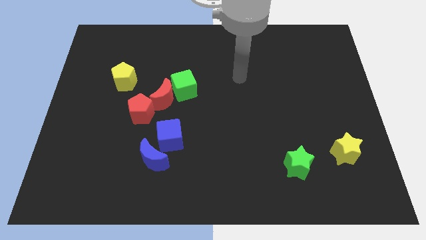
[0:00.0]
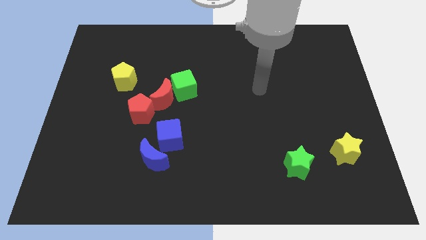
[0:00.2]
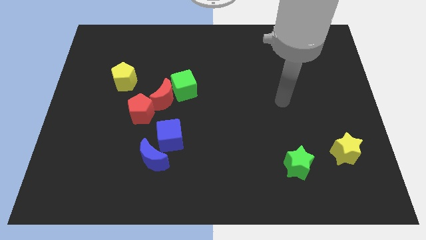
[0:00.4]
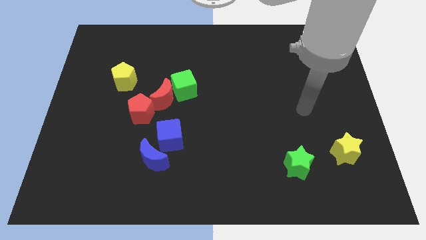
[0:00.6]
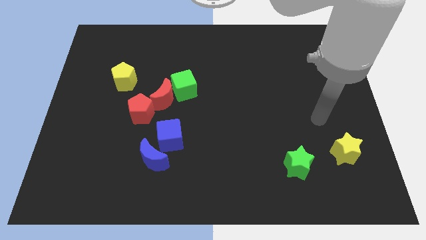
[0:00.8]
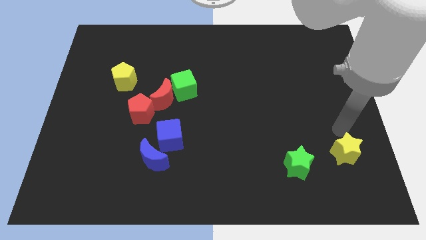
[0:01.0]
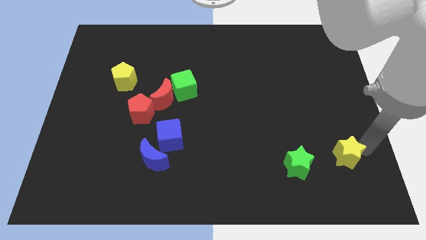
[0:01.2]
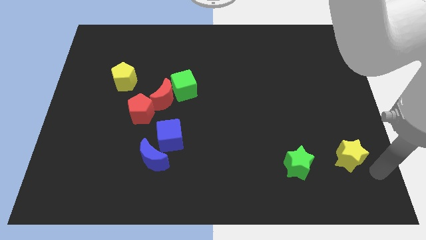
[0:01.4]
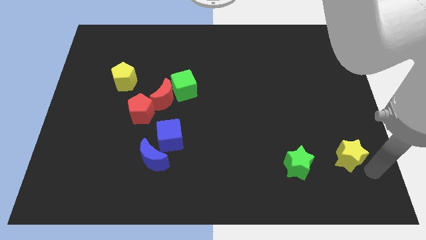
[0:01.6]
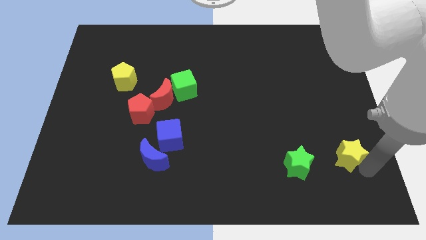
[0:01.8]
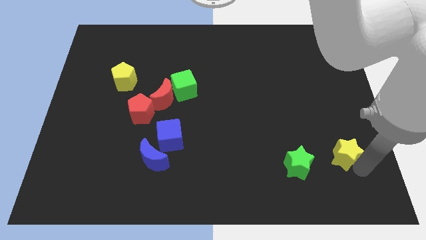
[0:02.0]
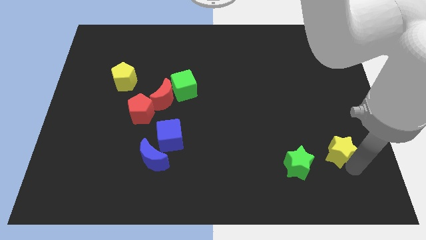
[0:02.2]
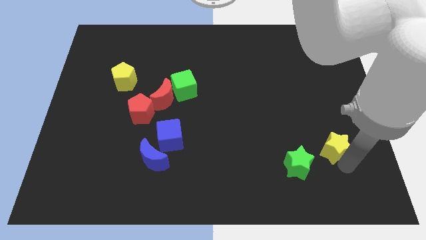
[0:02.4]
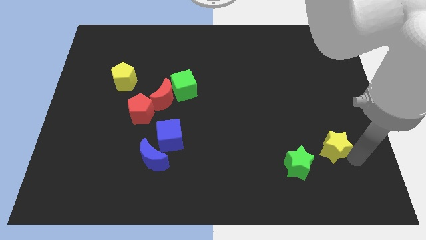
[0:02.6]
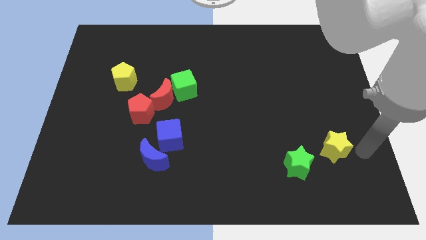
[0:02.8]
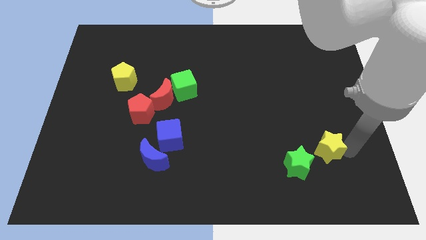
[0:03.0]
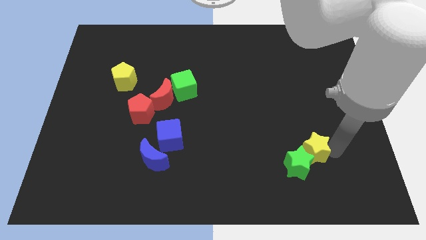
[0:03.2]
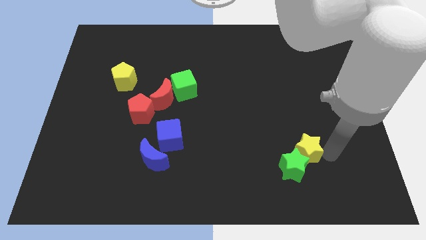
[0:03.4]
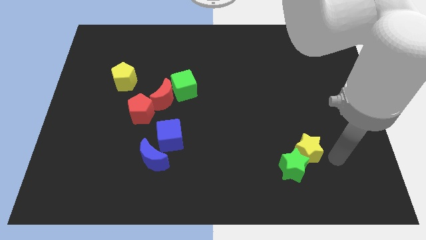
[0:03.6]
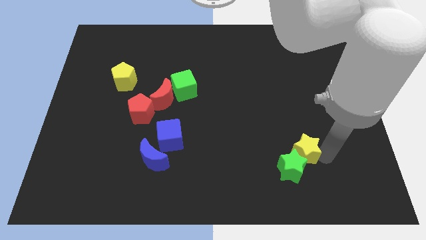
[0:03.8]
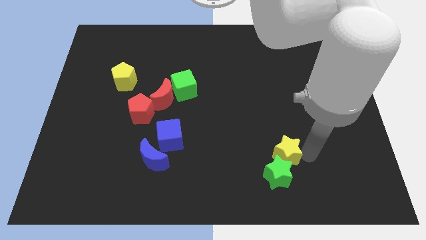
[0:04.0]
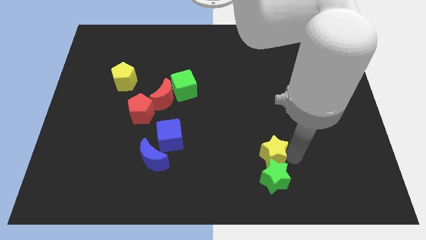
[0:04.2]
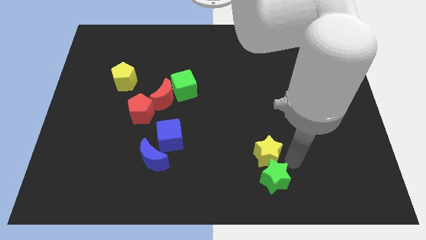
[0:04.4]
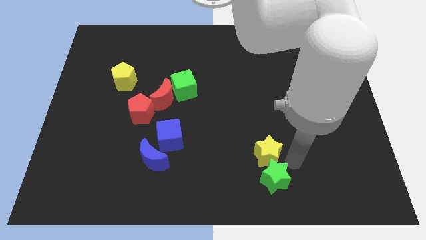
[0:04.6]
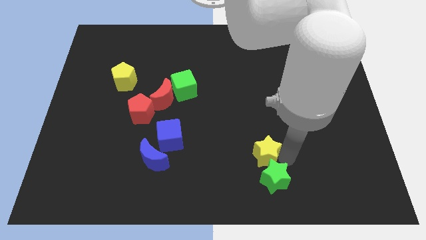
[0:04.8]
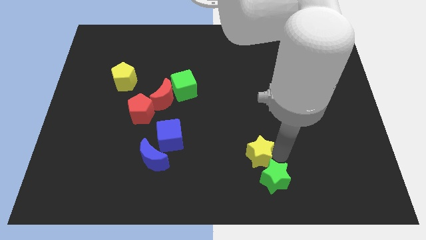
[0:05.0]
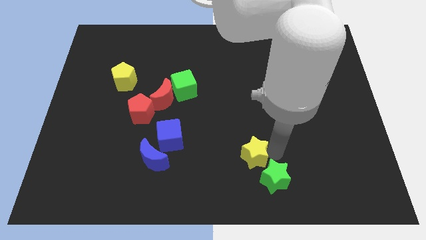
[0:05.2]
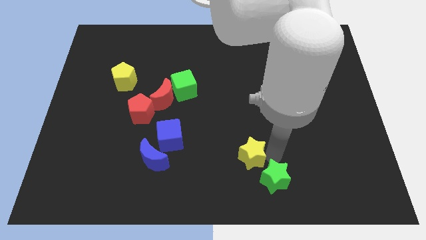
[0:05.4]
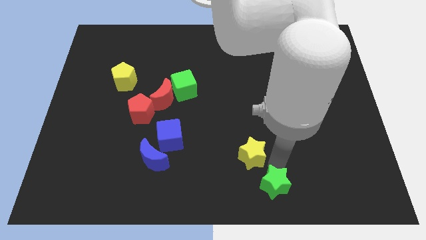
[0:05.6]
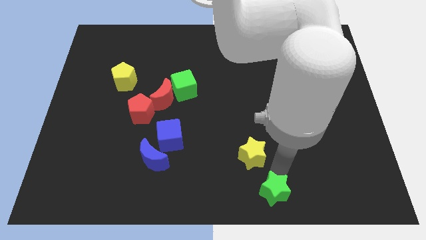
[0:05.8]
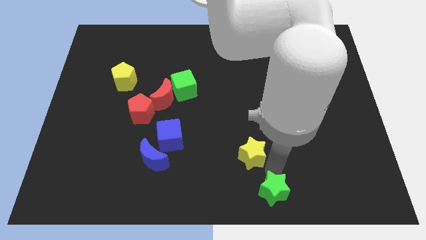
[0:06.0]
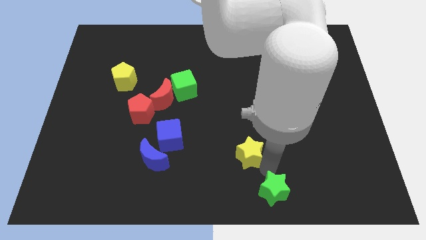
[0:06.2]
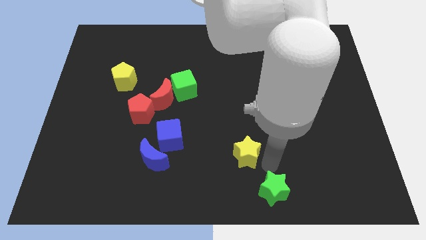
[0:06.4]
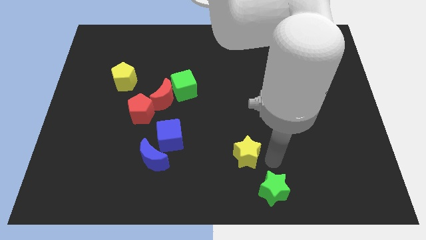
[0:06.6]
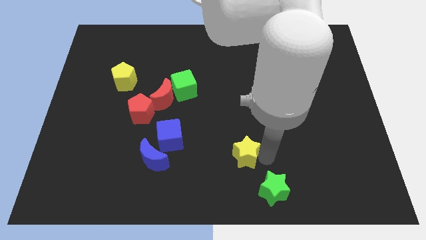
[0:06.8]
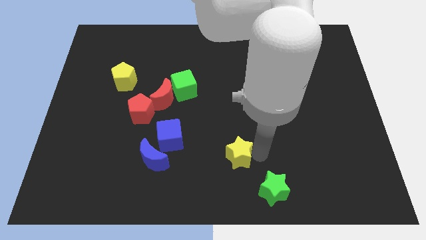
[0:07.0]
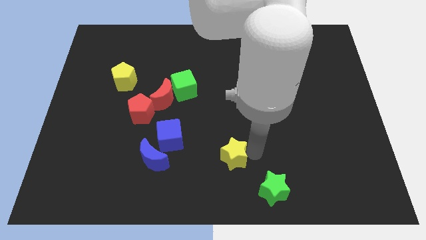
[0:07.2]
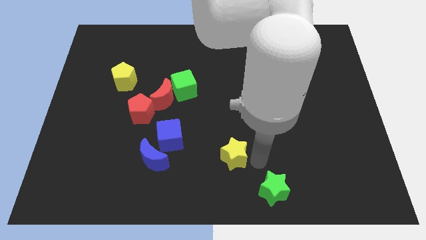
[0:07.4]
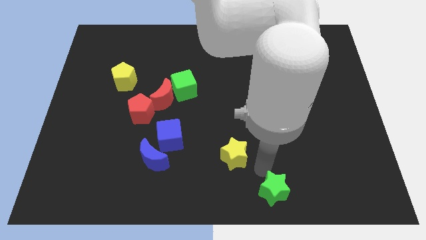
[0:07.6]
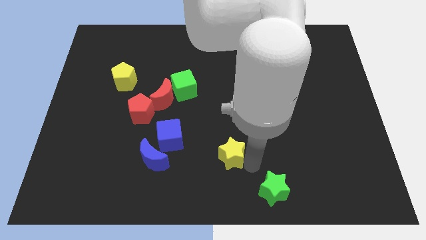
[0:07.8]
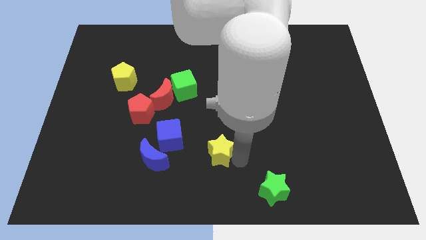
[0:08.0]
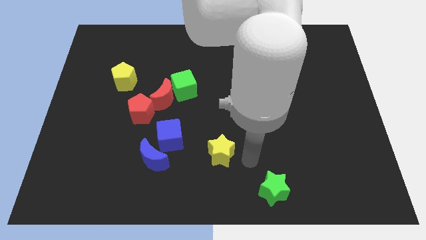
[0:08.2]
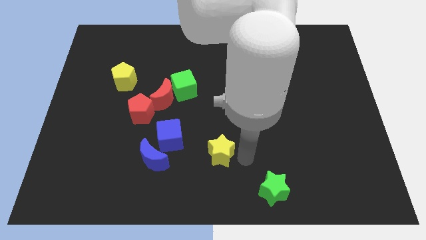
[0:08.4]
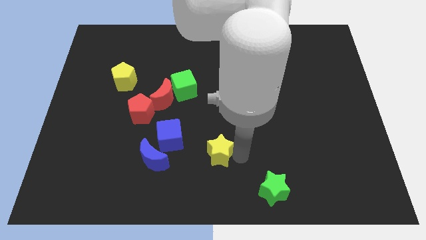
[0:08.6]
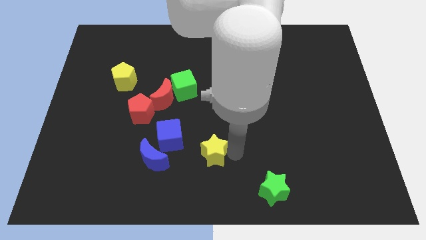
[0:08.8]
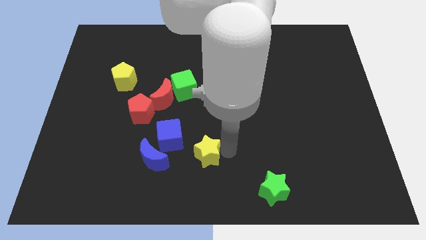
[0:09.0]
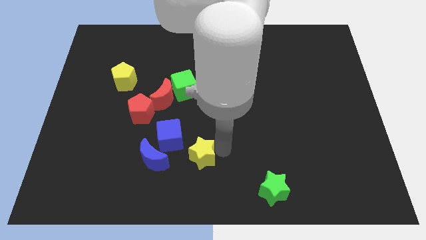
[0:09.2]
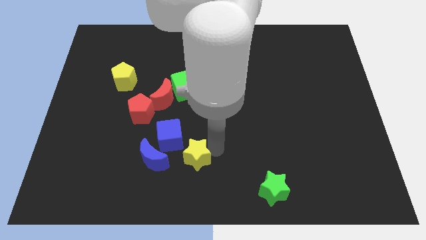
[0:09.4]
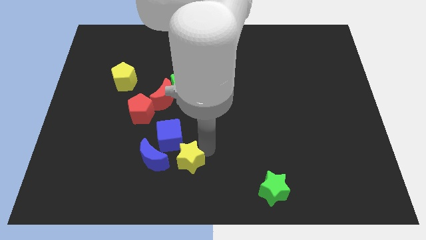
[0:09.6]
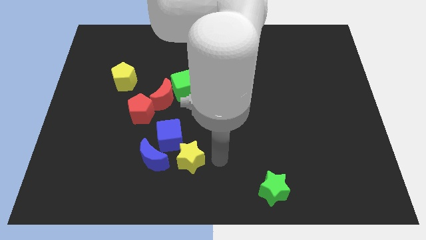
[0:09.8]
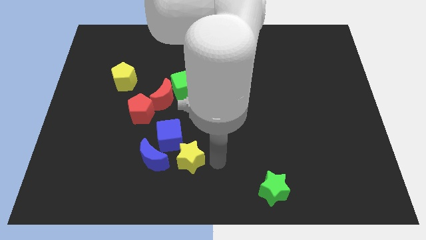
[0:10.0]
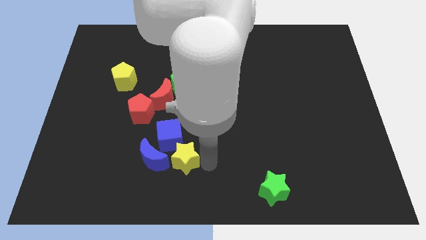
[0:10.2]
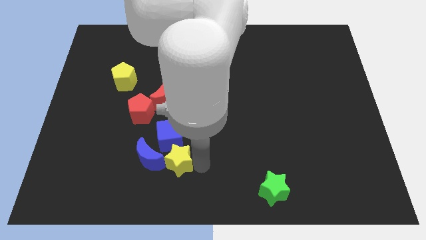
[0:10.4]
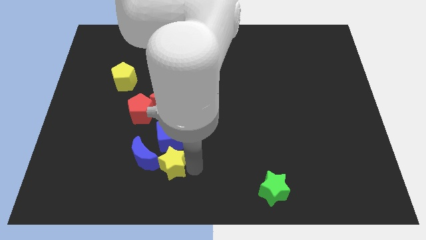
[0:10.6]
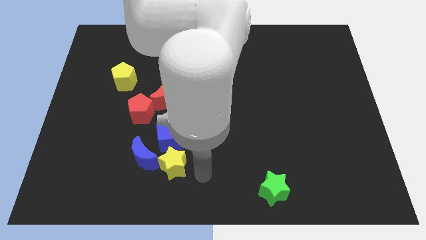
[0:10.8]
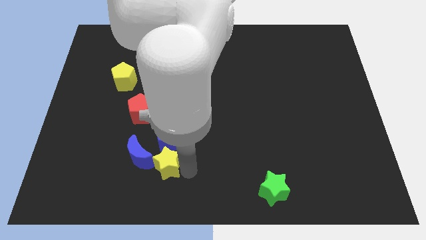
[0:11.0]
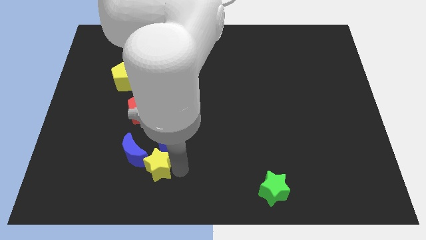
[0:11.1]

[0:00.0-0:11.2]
move the yellow star to the blue moon

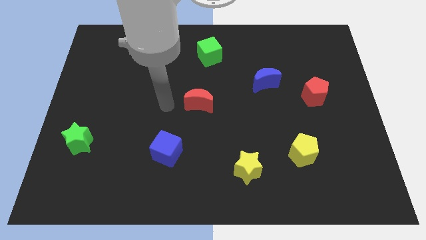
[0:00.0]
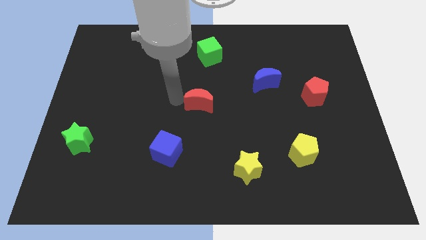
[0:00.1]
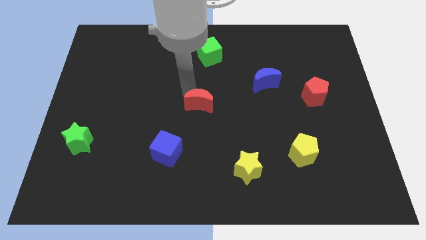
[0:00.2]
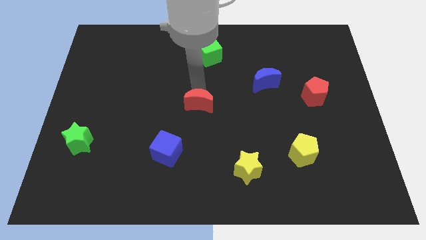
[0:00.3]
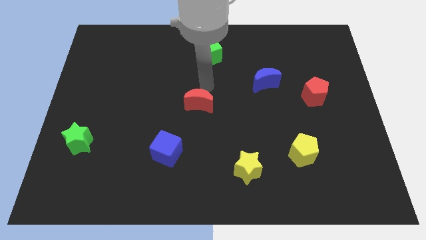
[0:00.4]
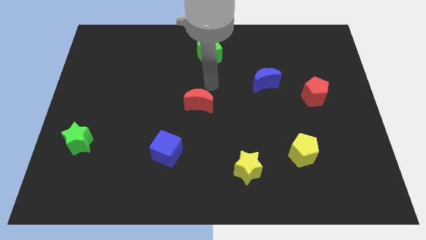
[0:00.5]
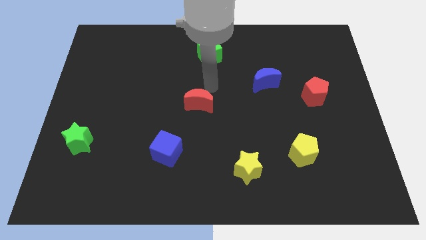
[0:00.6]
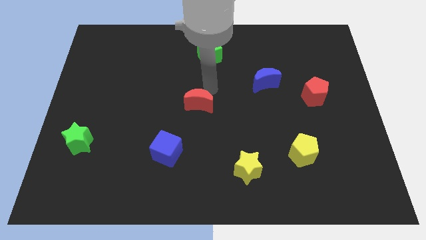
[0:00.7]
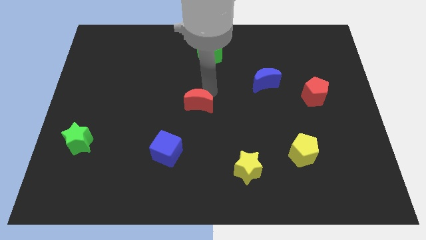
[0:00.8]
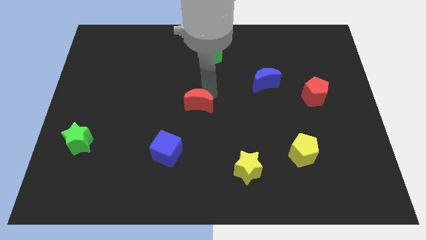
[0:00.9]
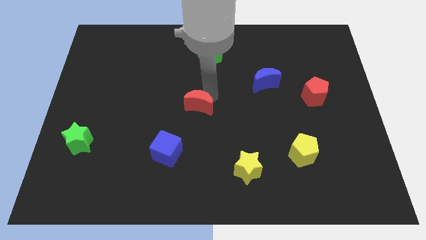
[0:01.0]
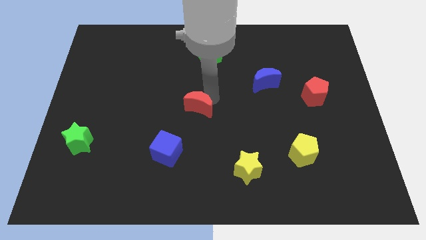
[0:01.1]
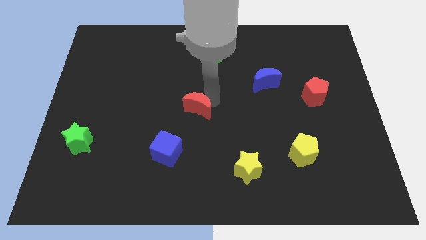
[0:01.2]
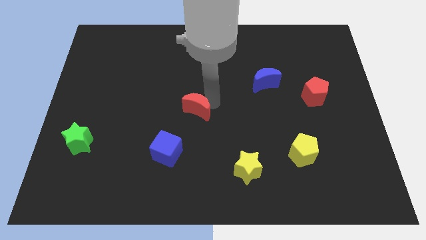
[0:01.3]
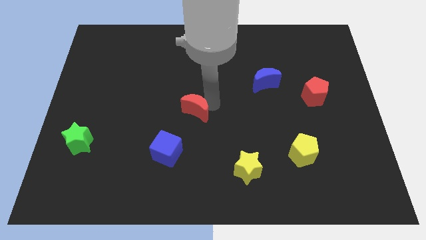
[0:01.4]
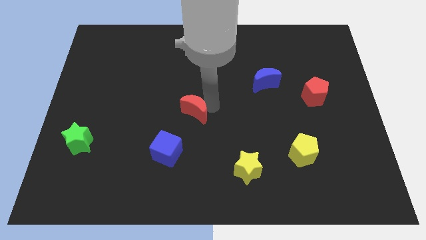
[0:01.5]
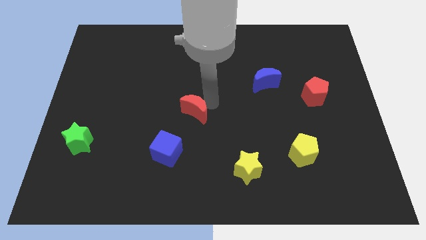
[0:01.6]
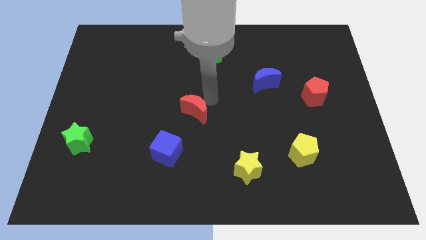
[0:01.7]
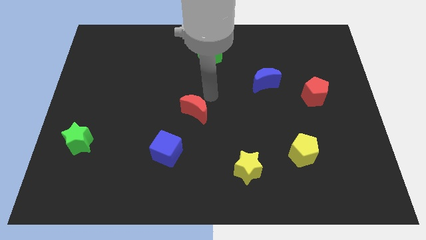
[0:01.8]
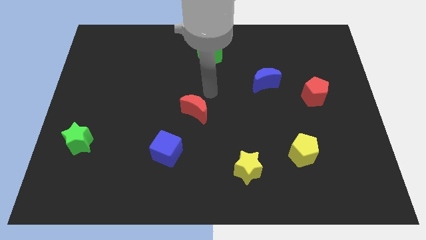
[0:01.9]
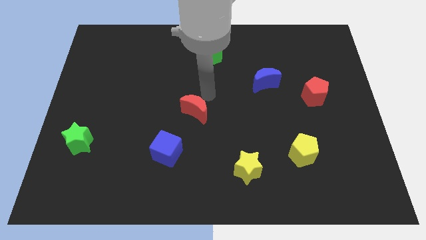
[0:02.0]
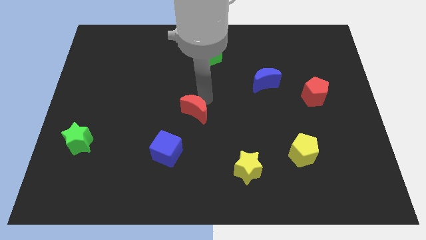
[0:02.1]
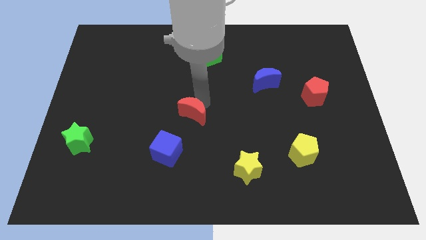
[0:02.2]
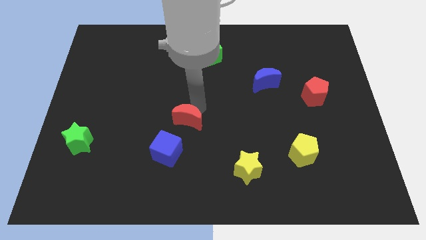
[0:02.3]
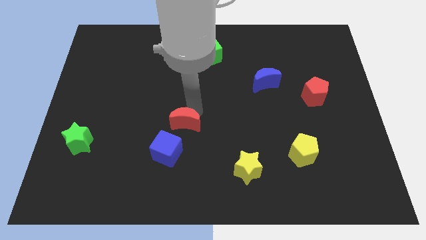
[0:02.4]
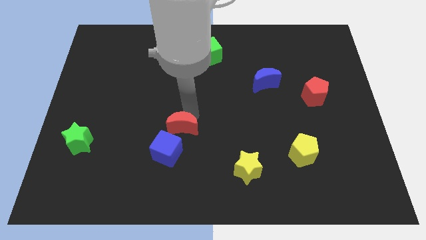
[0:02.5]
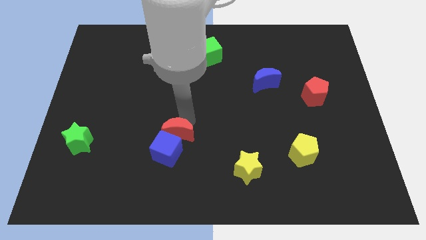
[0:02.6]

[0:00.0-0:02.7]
push the red moon close to the blue cube
